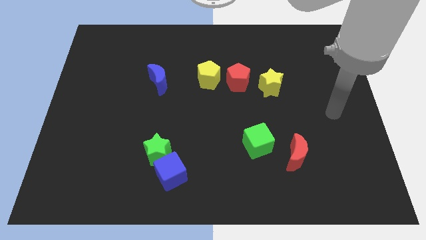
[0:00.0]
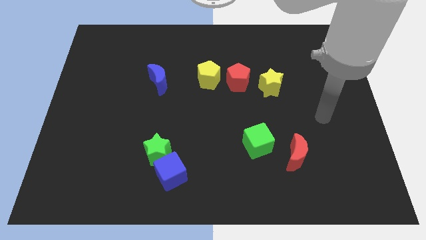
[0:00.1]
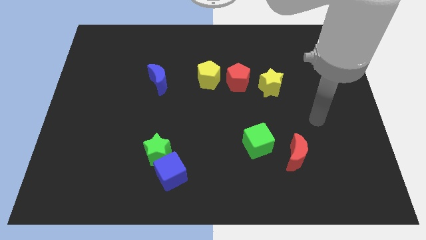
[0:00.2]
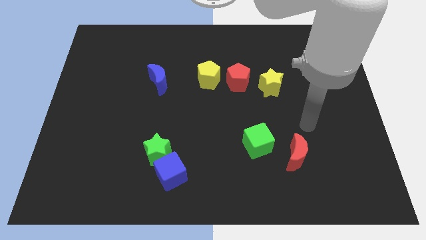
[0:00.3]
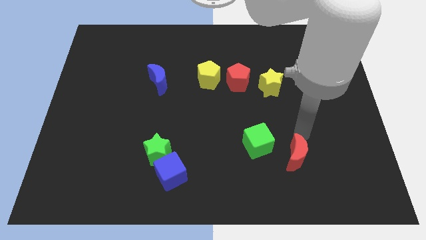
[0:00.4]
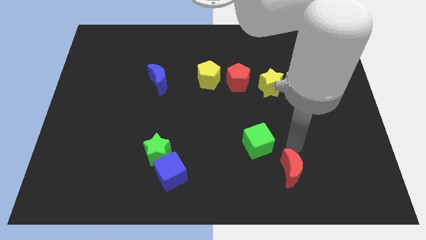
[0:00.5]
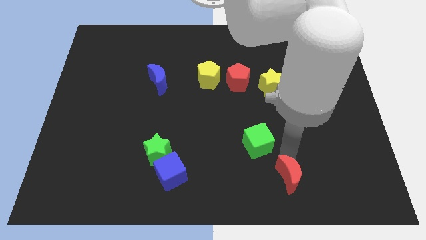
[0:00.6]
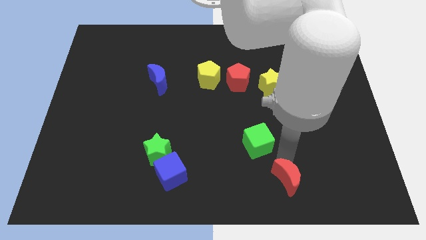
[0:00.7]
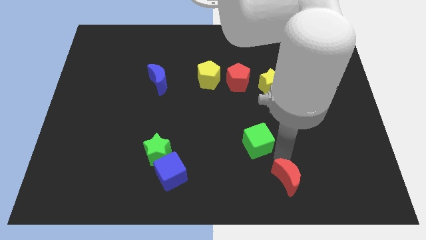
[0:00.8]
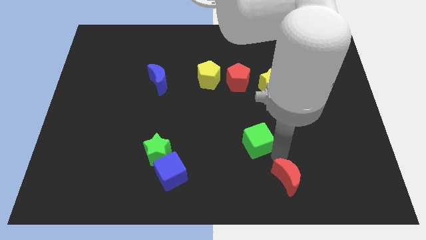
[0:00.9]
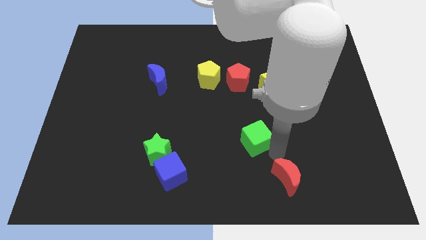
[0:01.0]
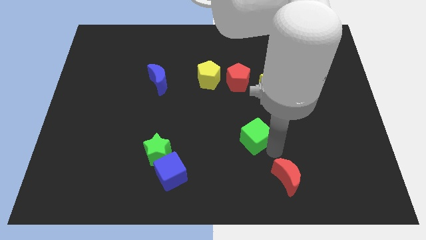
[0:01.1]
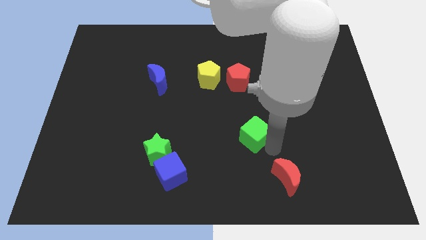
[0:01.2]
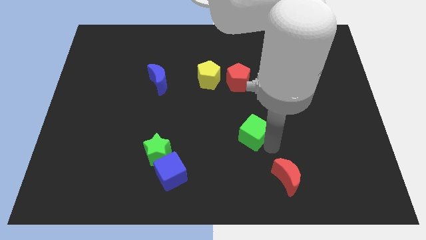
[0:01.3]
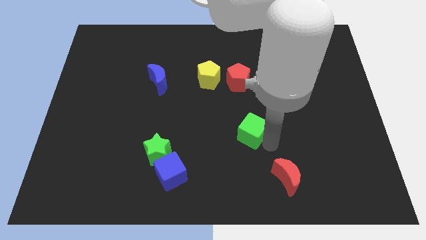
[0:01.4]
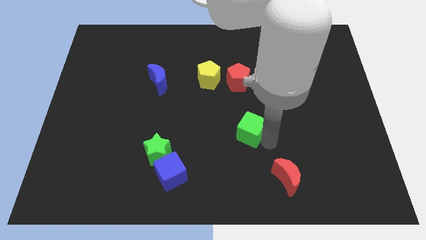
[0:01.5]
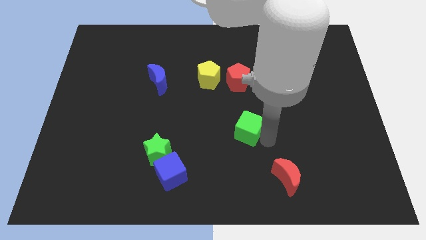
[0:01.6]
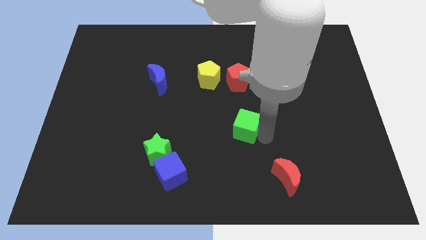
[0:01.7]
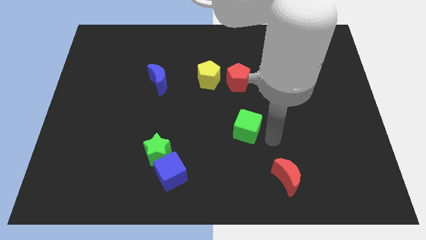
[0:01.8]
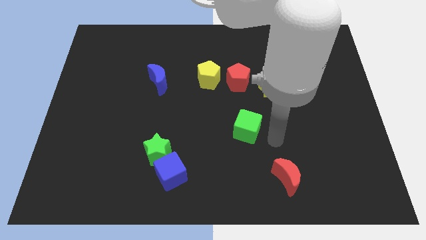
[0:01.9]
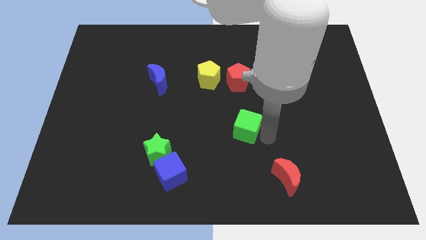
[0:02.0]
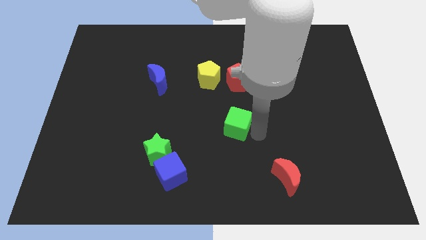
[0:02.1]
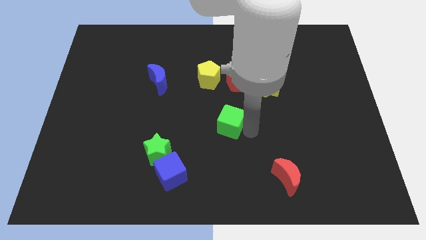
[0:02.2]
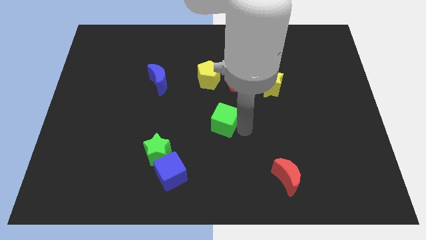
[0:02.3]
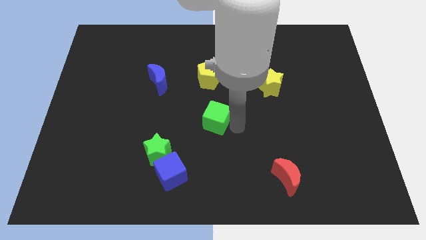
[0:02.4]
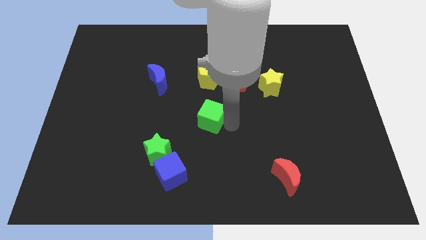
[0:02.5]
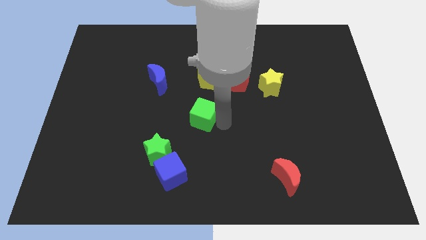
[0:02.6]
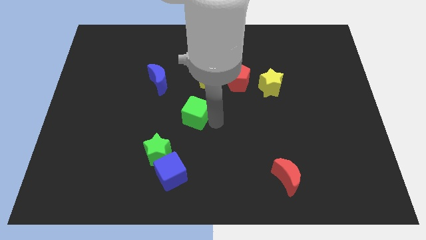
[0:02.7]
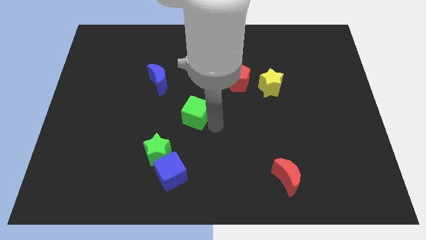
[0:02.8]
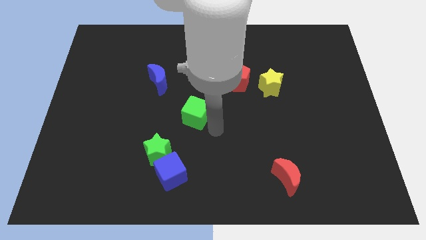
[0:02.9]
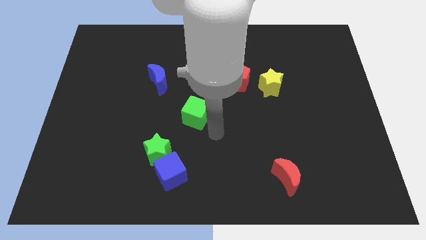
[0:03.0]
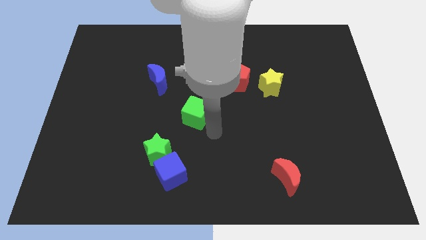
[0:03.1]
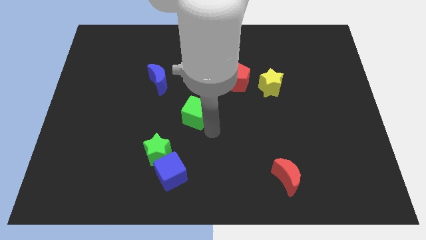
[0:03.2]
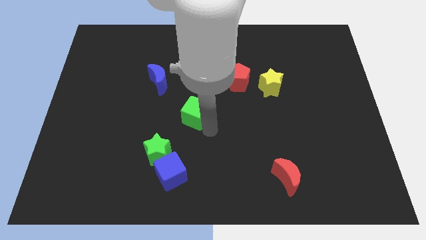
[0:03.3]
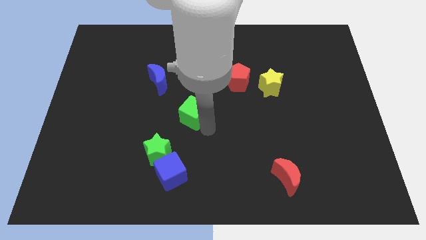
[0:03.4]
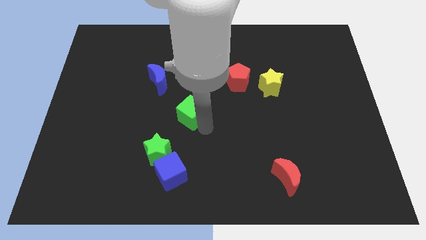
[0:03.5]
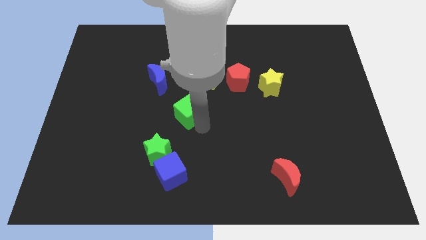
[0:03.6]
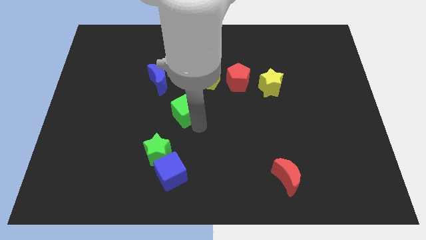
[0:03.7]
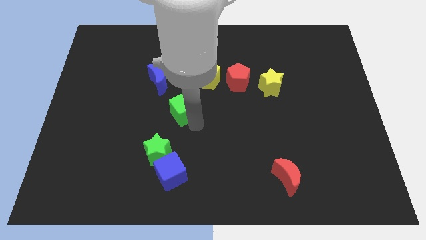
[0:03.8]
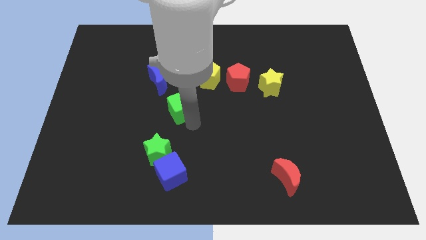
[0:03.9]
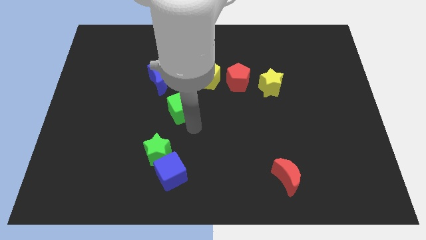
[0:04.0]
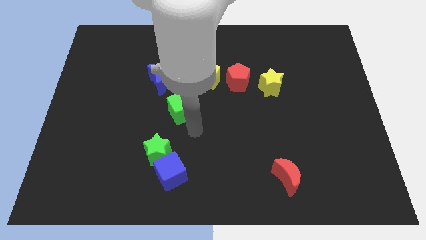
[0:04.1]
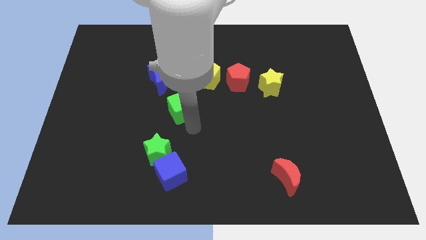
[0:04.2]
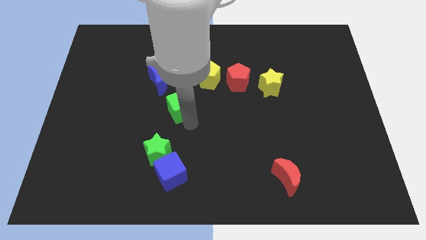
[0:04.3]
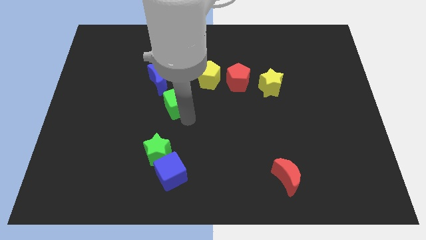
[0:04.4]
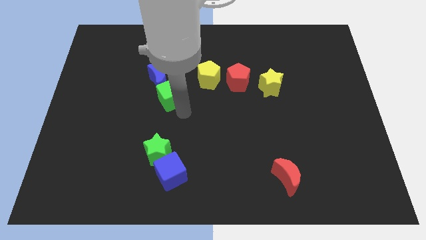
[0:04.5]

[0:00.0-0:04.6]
slide the green cube close to the blue moon

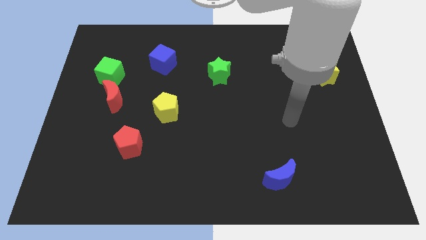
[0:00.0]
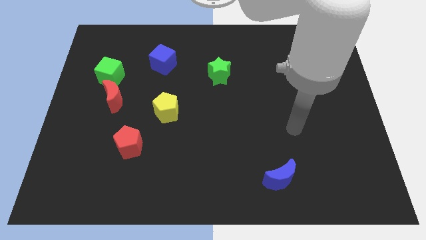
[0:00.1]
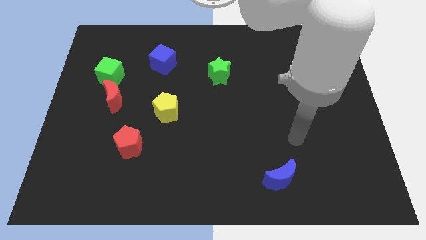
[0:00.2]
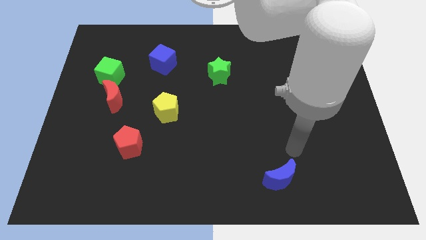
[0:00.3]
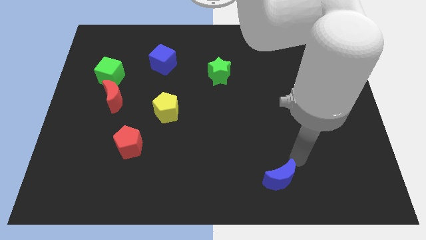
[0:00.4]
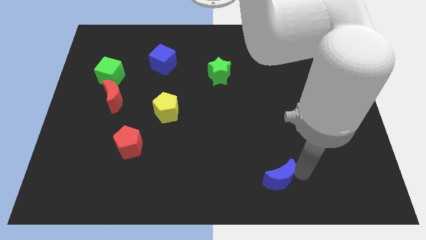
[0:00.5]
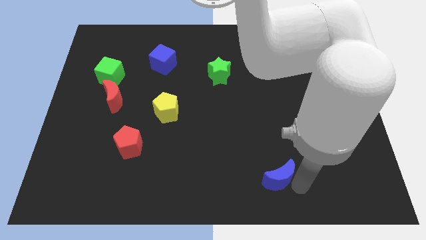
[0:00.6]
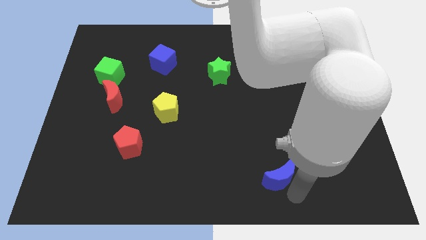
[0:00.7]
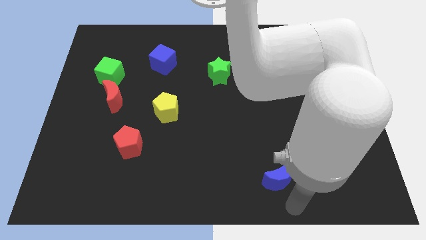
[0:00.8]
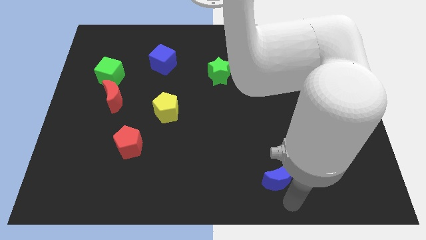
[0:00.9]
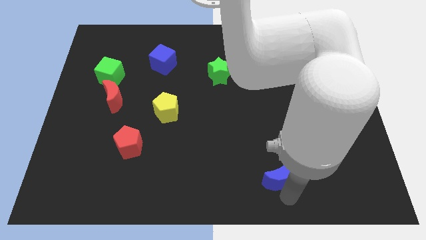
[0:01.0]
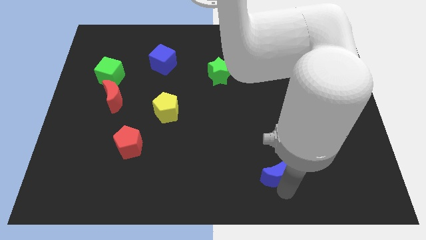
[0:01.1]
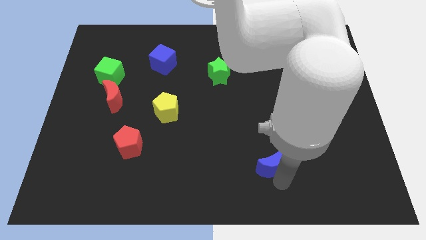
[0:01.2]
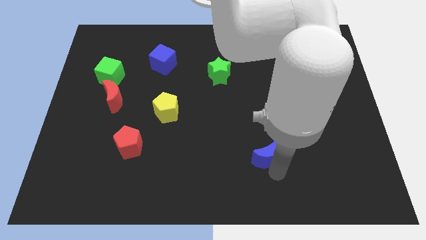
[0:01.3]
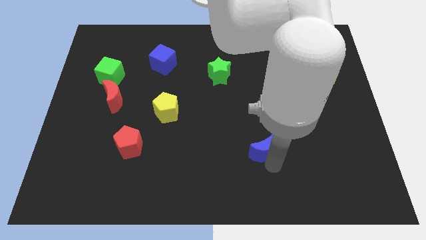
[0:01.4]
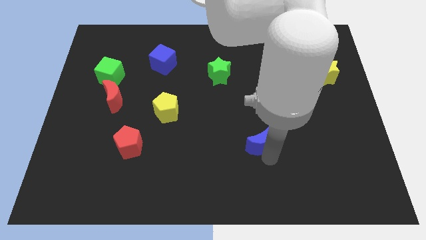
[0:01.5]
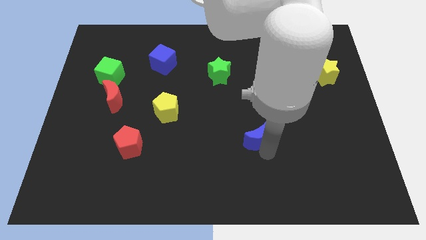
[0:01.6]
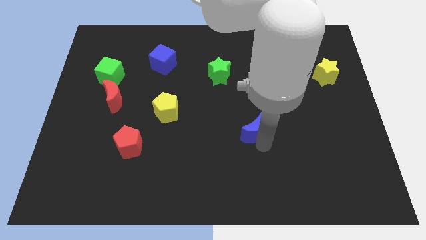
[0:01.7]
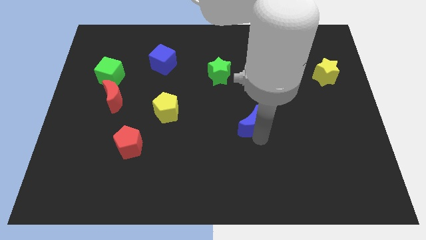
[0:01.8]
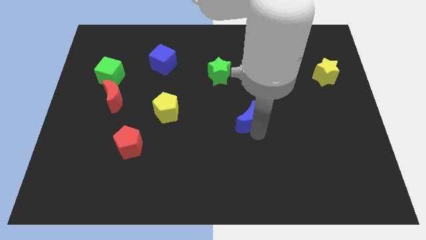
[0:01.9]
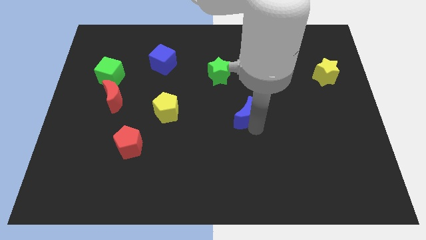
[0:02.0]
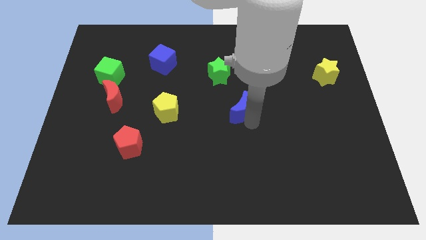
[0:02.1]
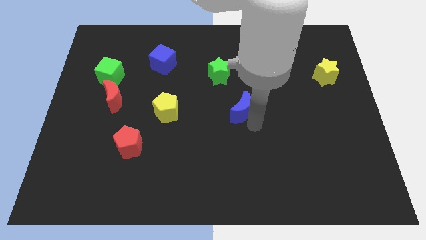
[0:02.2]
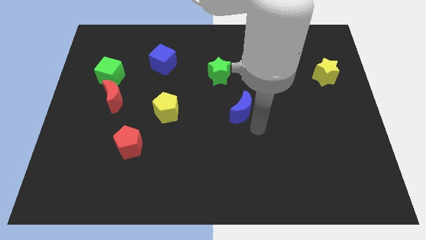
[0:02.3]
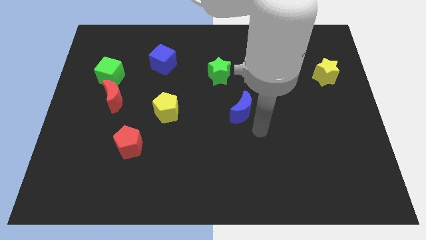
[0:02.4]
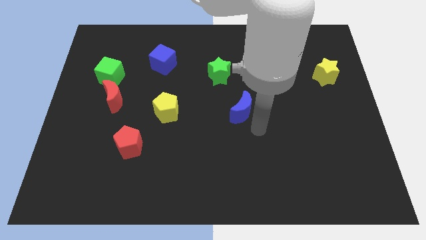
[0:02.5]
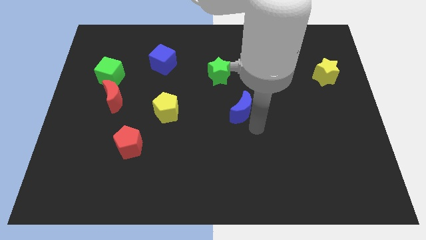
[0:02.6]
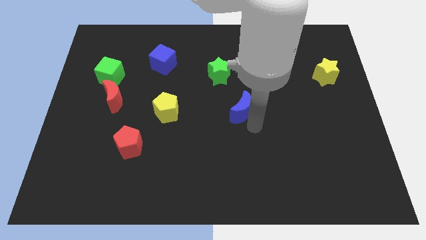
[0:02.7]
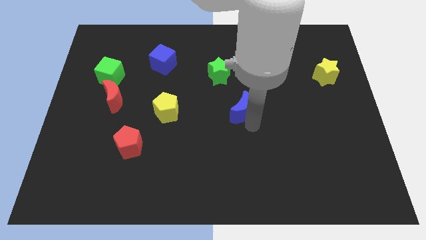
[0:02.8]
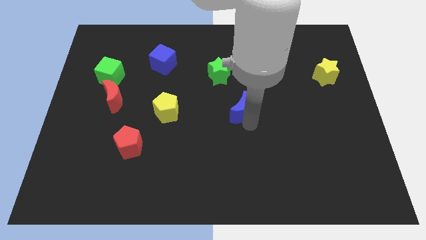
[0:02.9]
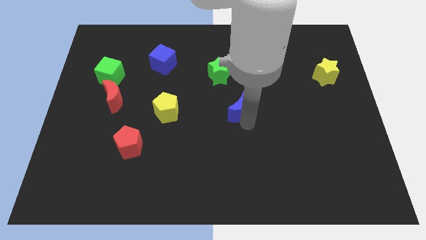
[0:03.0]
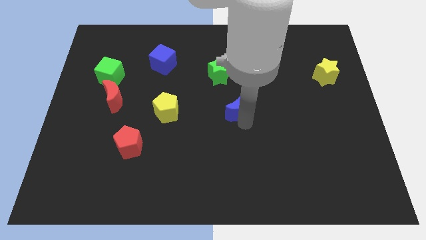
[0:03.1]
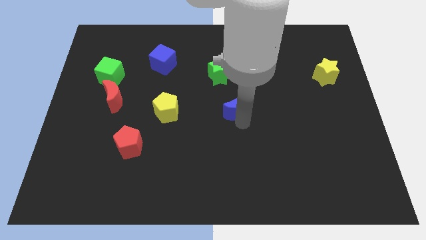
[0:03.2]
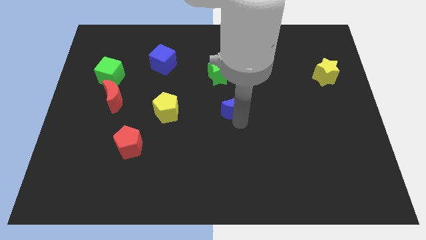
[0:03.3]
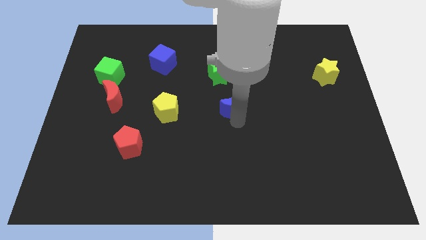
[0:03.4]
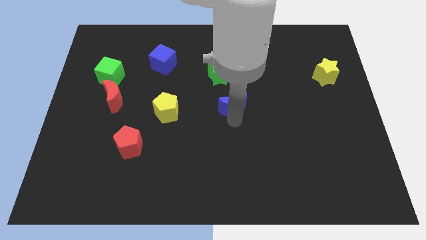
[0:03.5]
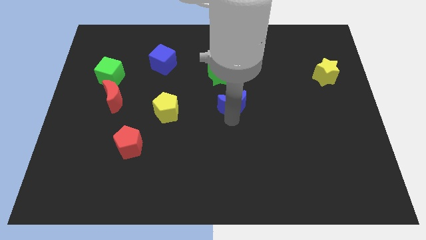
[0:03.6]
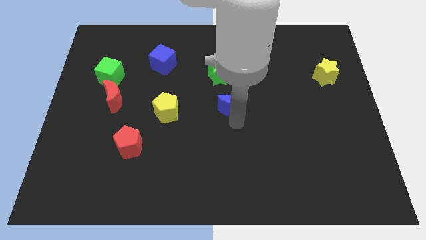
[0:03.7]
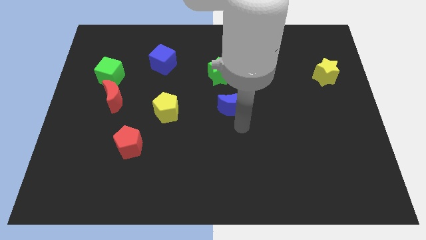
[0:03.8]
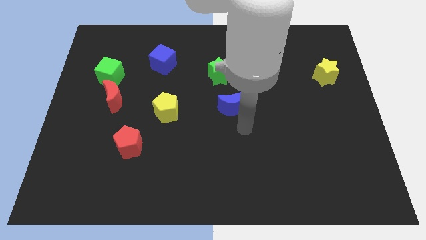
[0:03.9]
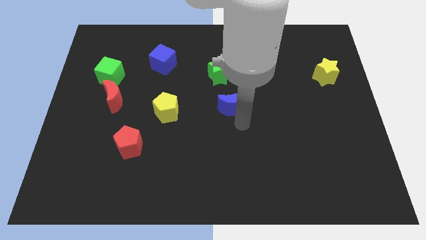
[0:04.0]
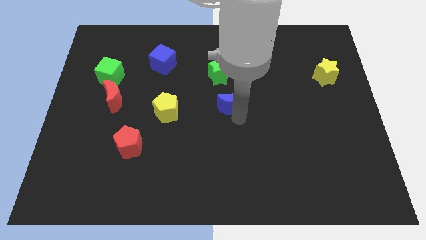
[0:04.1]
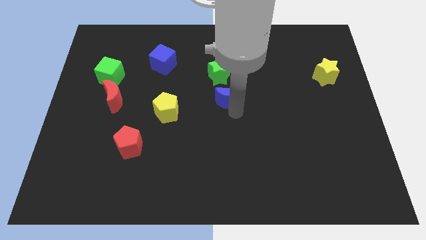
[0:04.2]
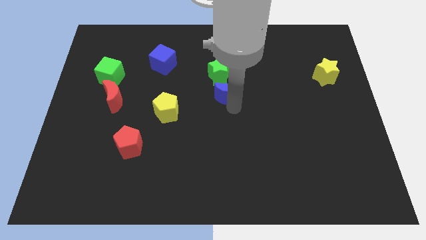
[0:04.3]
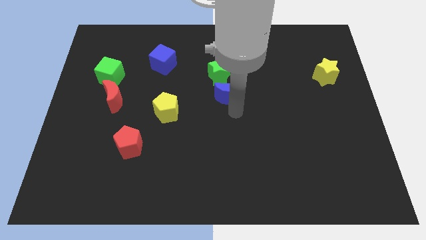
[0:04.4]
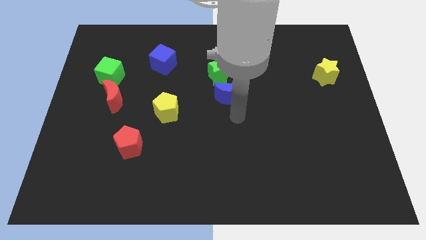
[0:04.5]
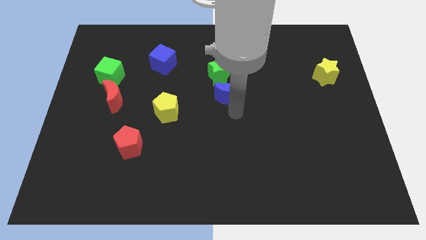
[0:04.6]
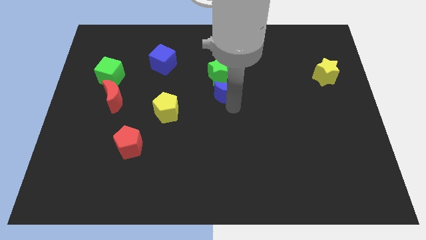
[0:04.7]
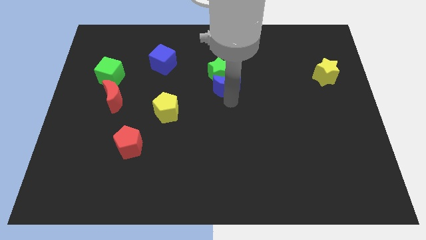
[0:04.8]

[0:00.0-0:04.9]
move the blue moon close to the green star
